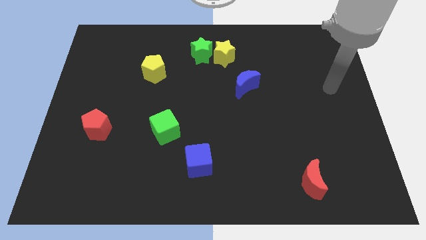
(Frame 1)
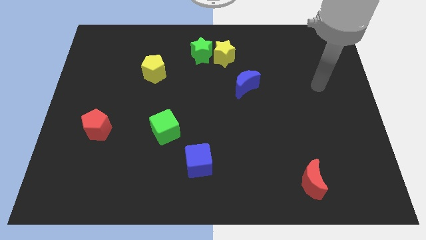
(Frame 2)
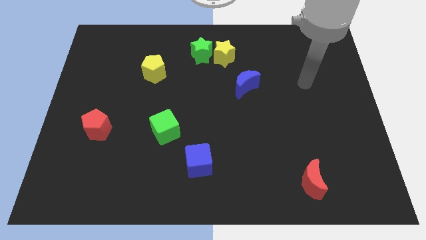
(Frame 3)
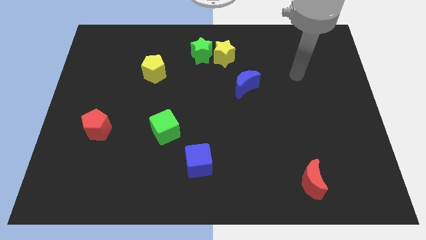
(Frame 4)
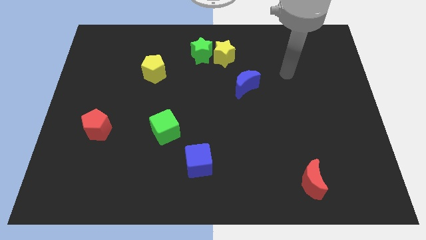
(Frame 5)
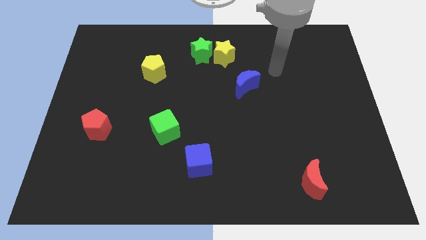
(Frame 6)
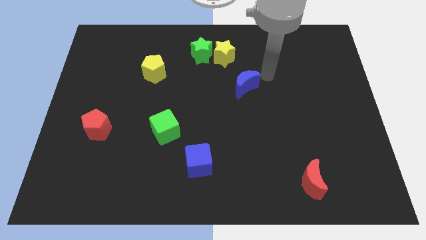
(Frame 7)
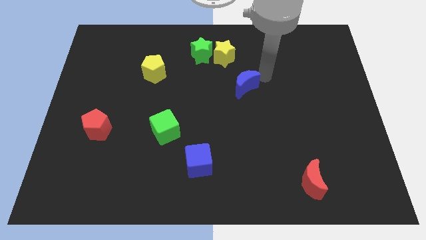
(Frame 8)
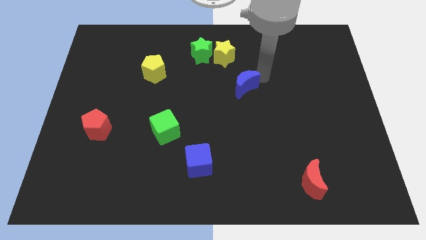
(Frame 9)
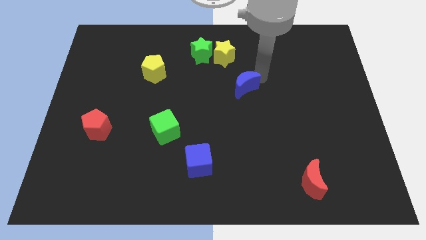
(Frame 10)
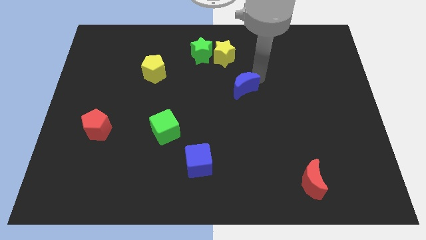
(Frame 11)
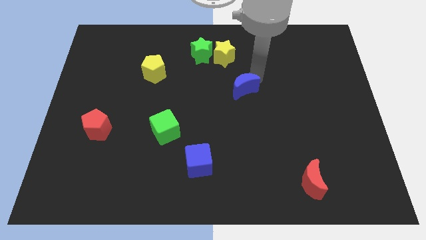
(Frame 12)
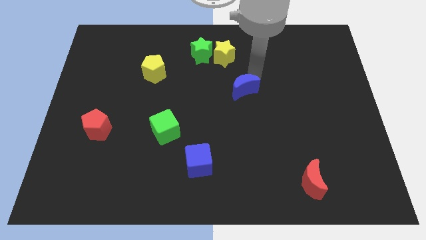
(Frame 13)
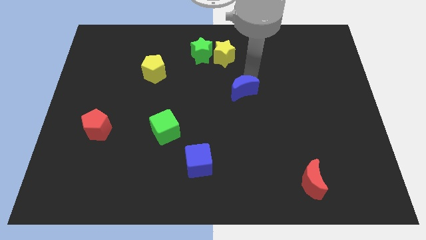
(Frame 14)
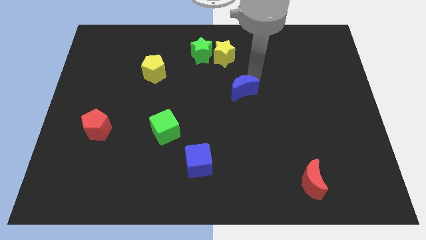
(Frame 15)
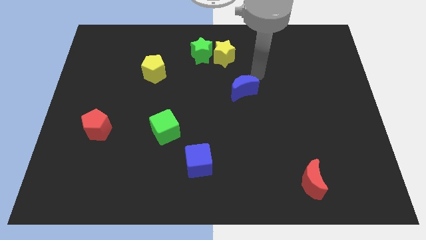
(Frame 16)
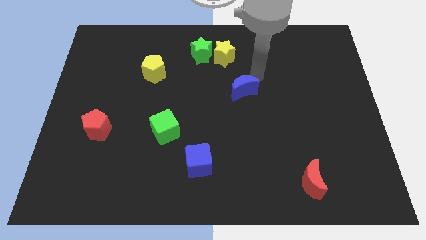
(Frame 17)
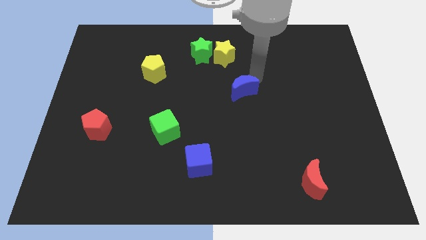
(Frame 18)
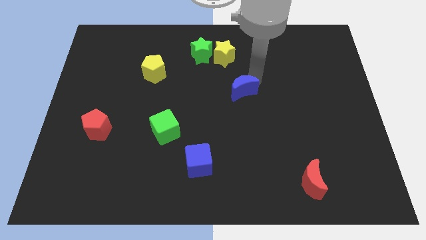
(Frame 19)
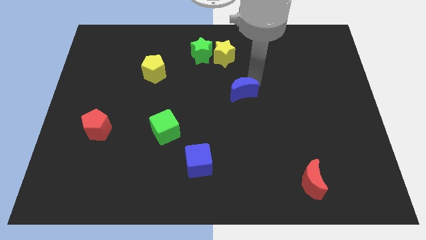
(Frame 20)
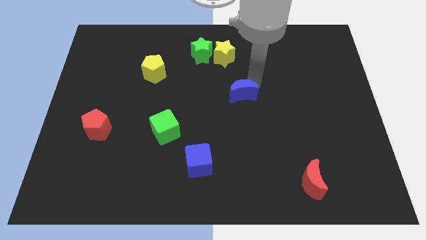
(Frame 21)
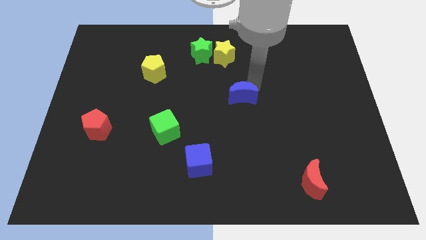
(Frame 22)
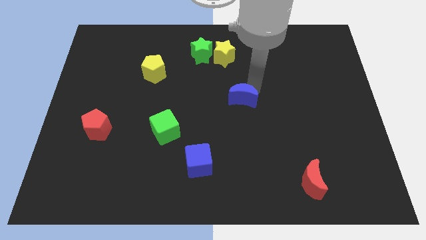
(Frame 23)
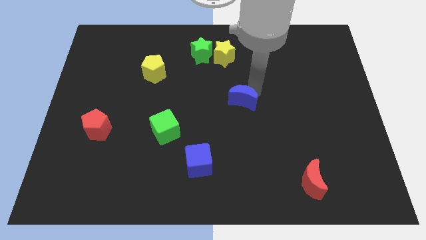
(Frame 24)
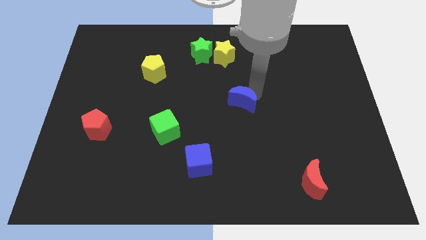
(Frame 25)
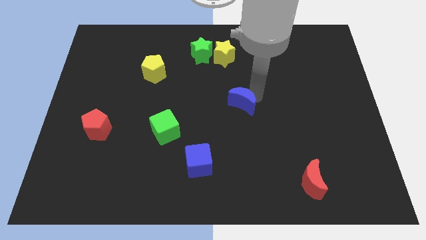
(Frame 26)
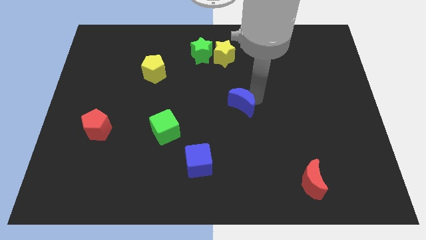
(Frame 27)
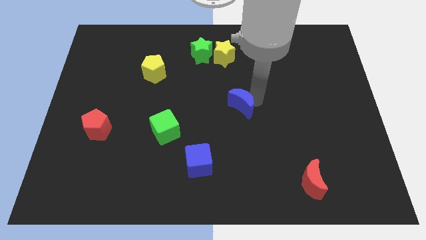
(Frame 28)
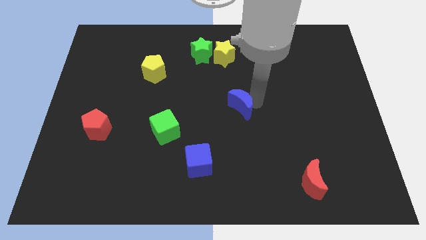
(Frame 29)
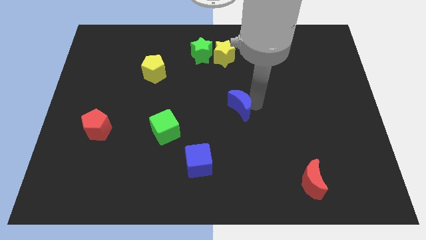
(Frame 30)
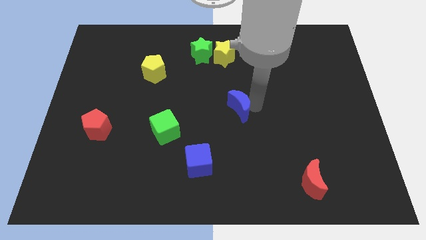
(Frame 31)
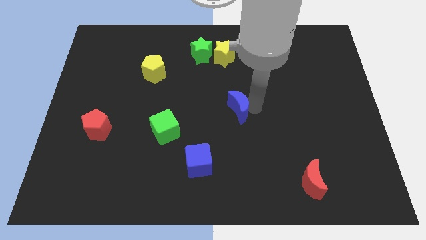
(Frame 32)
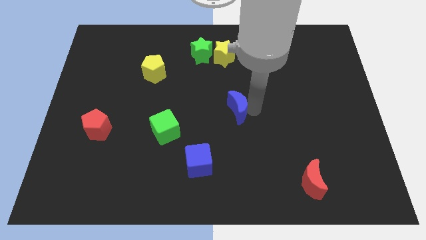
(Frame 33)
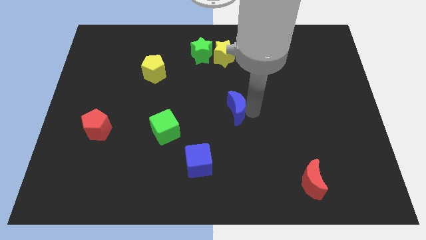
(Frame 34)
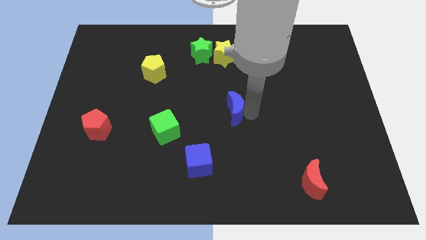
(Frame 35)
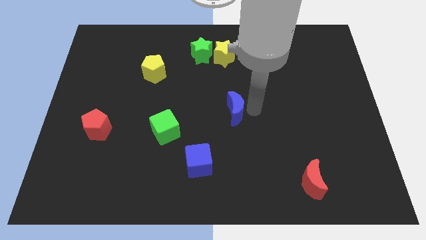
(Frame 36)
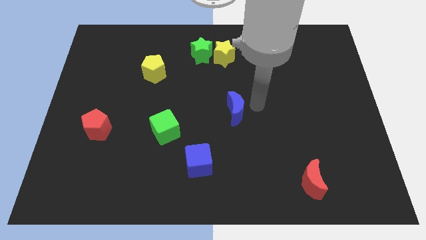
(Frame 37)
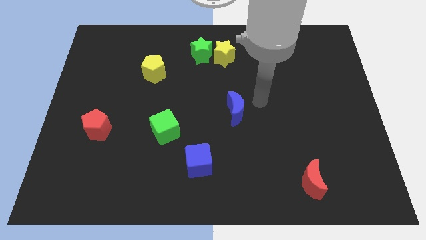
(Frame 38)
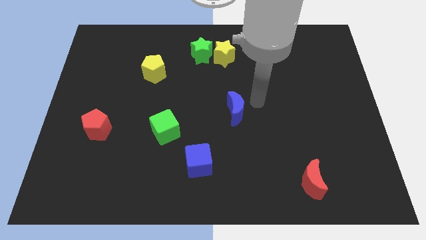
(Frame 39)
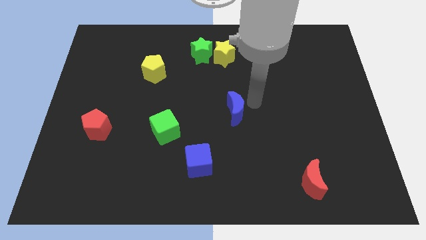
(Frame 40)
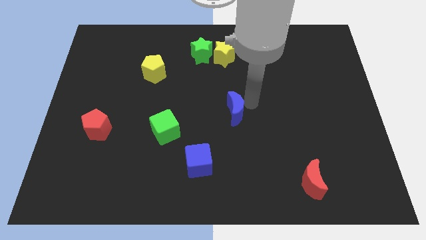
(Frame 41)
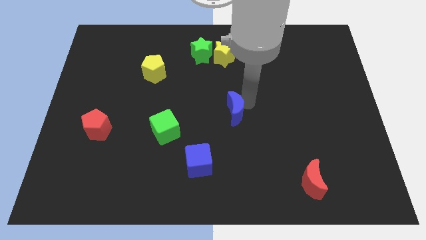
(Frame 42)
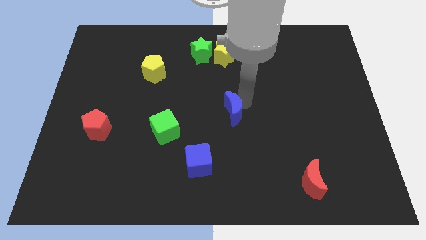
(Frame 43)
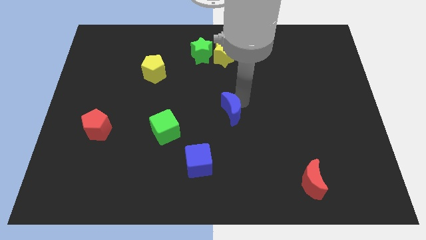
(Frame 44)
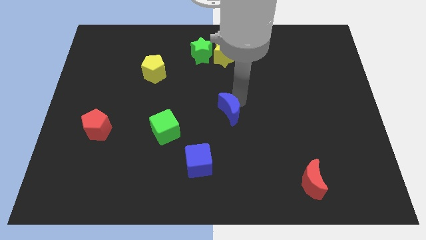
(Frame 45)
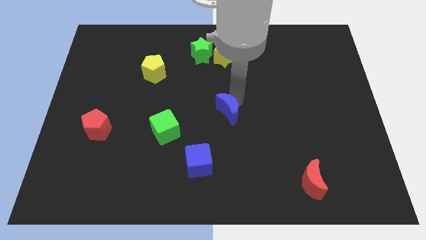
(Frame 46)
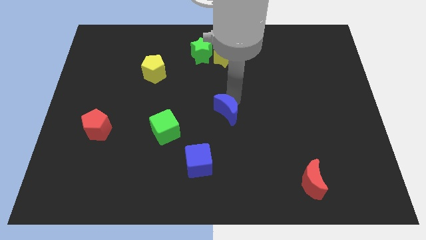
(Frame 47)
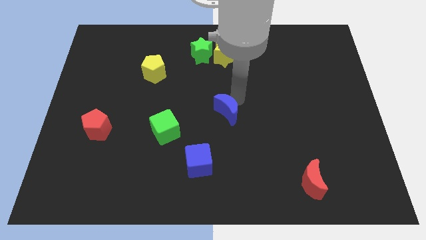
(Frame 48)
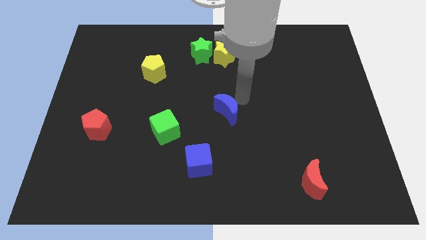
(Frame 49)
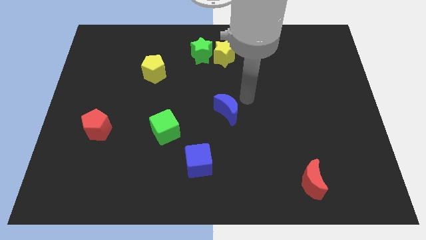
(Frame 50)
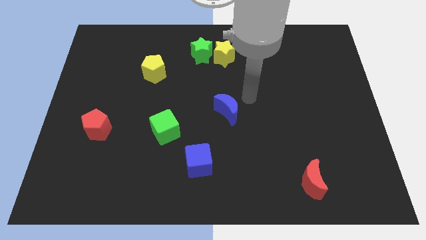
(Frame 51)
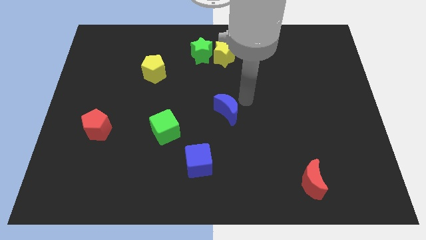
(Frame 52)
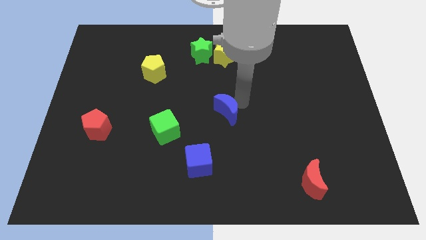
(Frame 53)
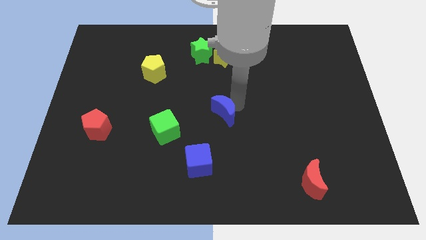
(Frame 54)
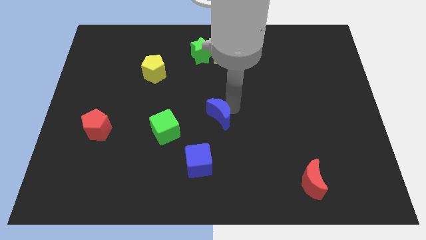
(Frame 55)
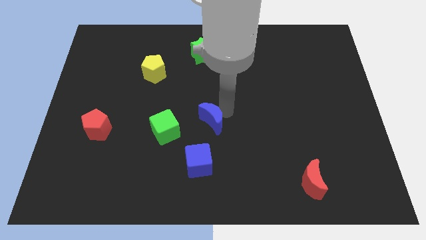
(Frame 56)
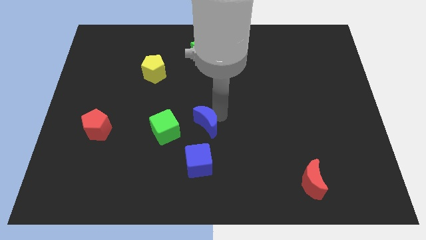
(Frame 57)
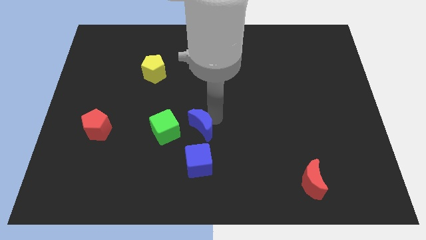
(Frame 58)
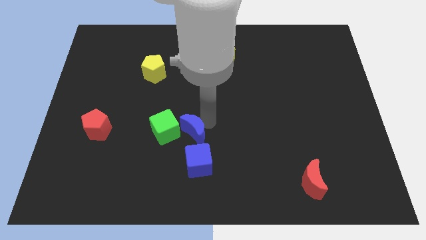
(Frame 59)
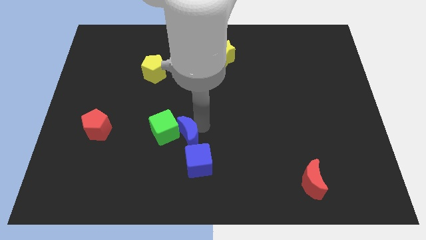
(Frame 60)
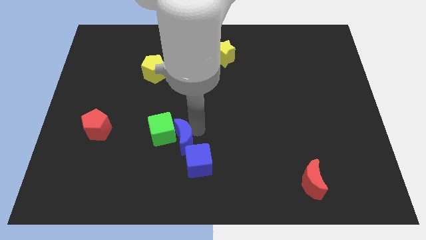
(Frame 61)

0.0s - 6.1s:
move the blue moon down and left

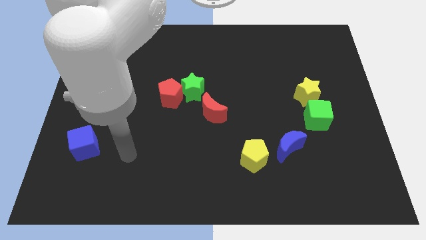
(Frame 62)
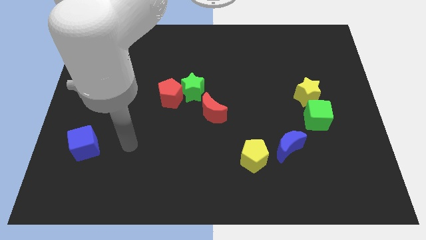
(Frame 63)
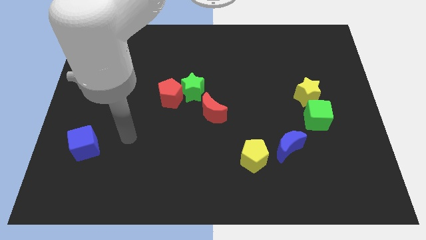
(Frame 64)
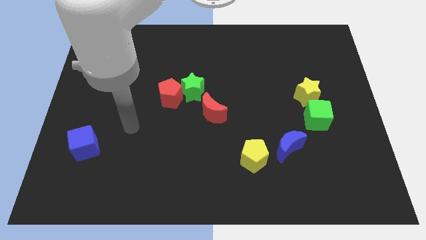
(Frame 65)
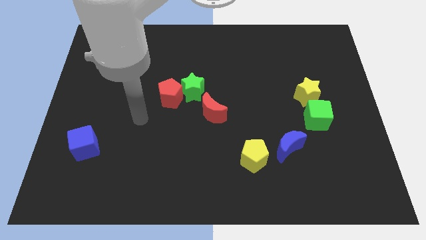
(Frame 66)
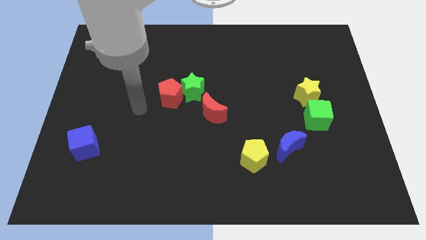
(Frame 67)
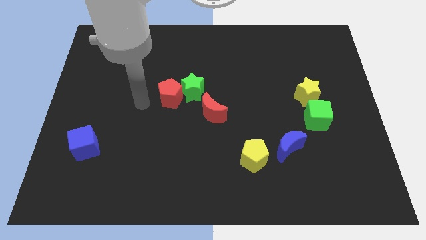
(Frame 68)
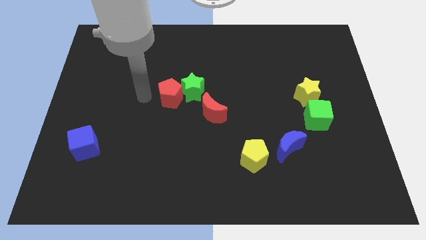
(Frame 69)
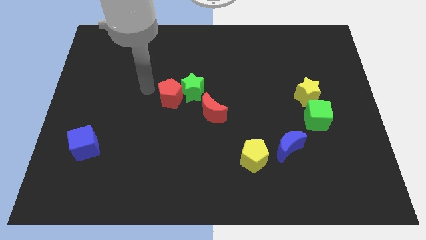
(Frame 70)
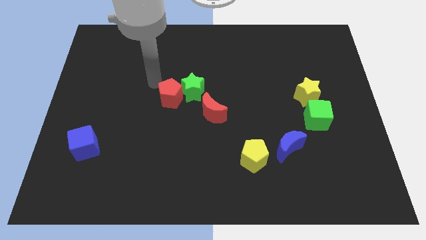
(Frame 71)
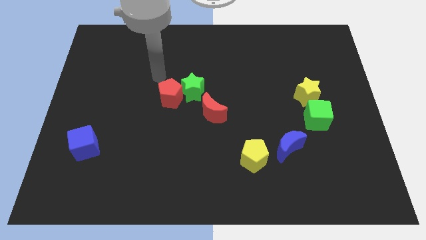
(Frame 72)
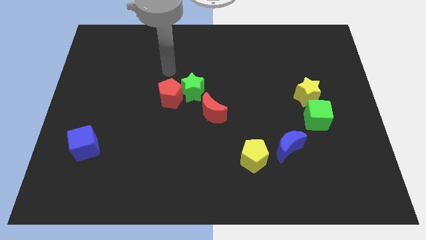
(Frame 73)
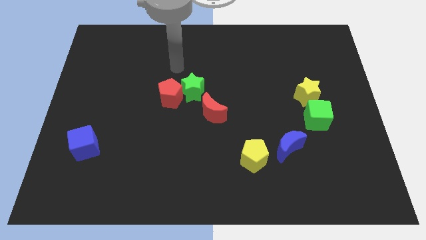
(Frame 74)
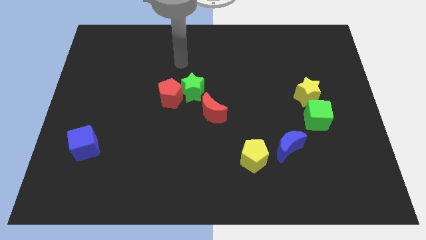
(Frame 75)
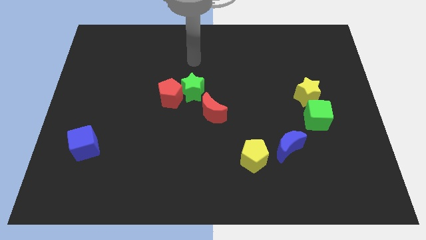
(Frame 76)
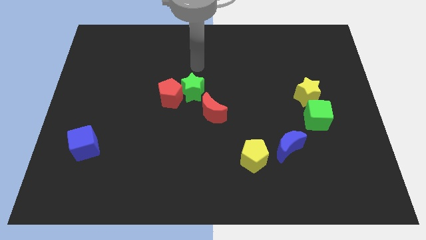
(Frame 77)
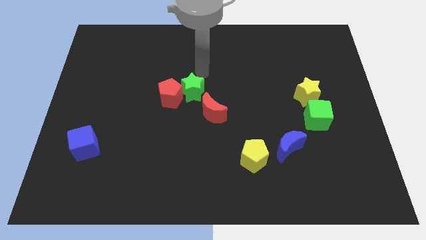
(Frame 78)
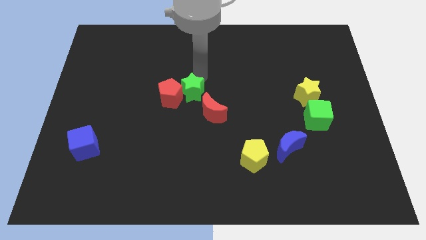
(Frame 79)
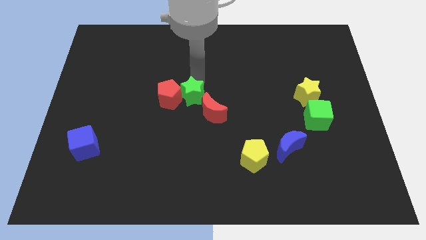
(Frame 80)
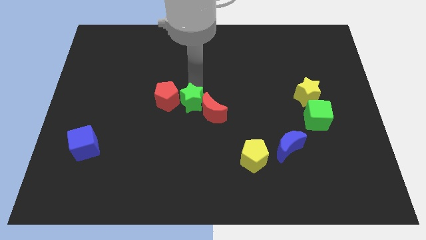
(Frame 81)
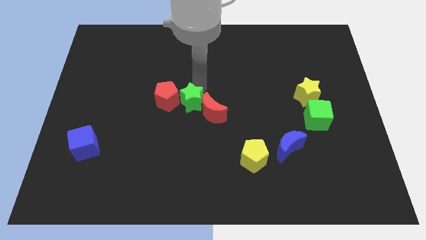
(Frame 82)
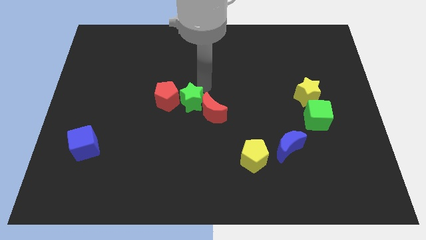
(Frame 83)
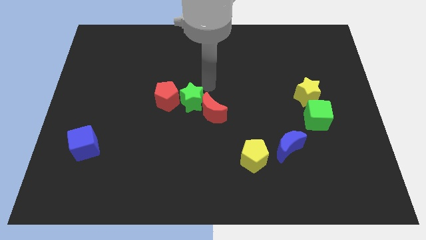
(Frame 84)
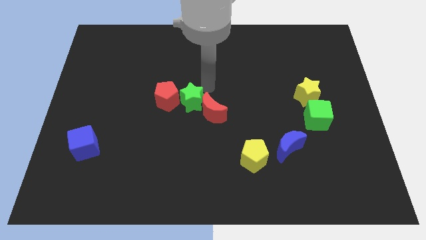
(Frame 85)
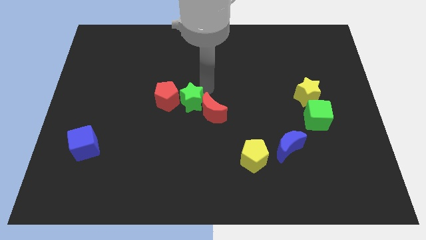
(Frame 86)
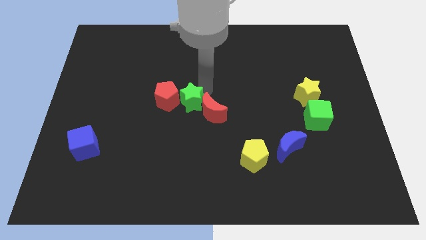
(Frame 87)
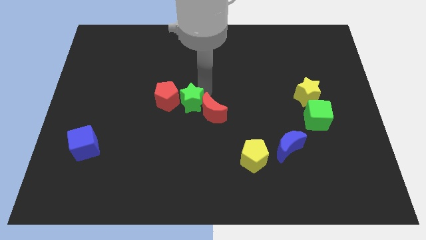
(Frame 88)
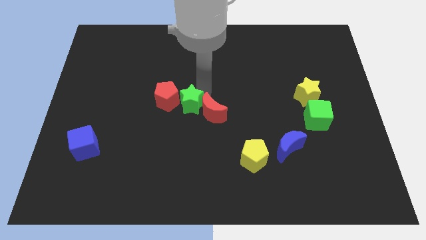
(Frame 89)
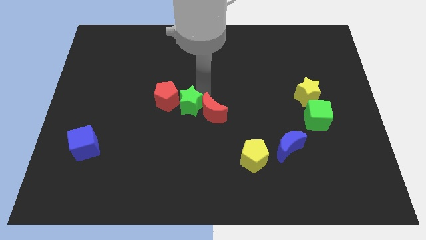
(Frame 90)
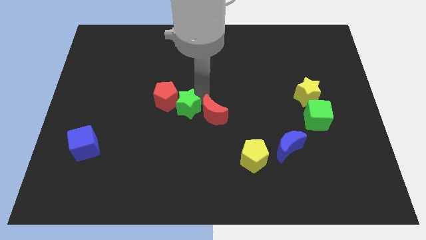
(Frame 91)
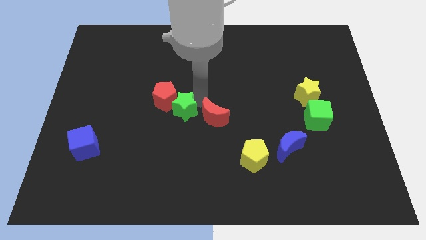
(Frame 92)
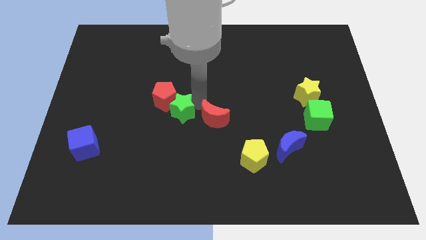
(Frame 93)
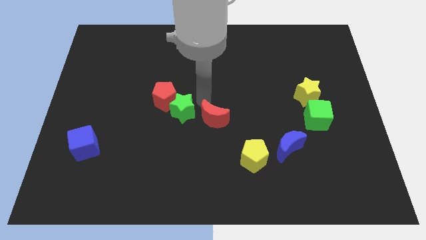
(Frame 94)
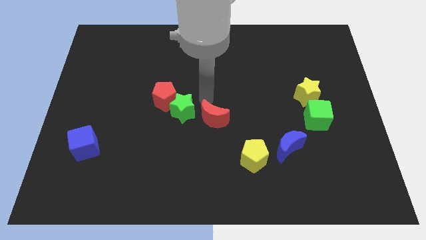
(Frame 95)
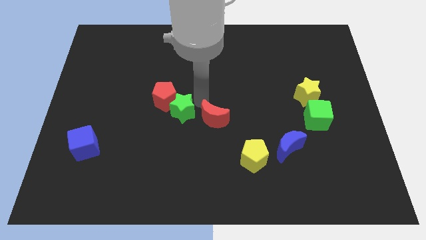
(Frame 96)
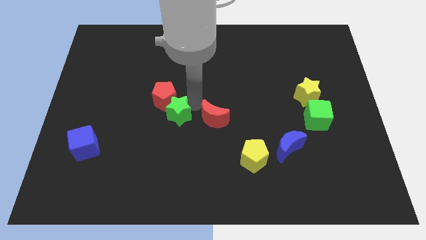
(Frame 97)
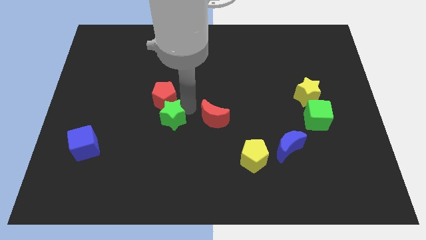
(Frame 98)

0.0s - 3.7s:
move the green star down and left somewhat
